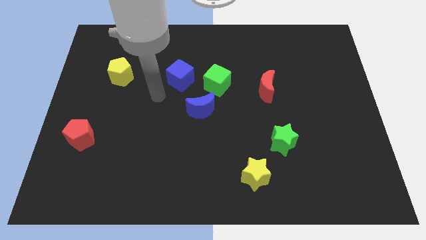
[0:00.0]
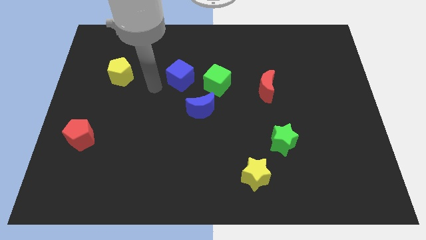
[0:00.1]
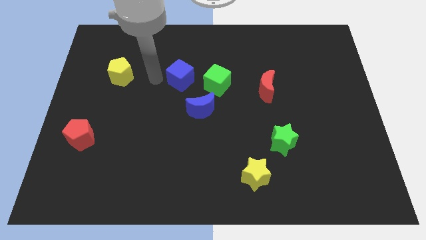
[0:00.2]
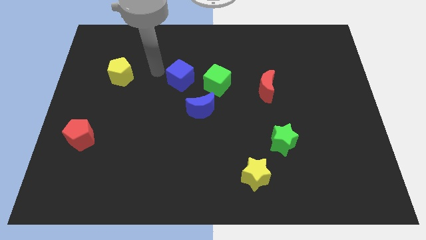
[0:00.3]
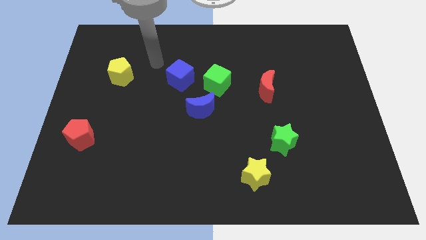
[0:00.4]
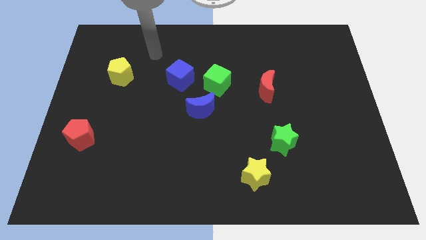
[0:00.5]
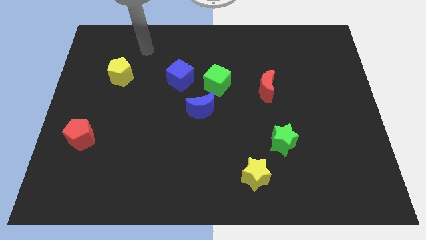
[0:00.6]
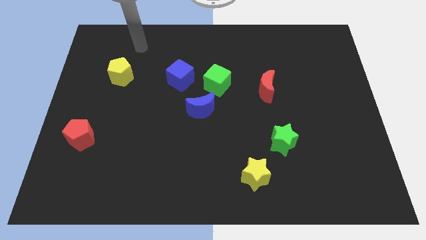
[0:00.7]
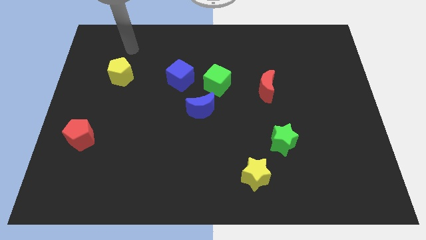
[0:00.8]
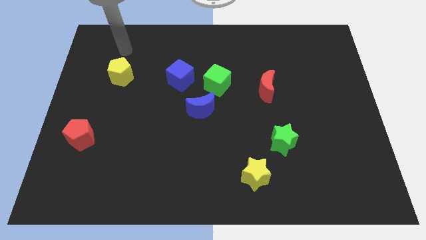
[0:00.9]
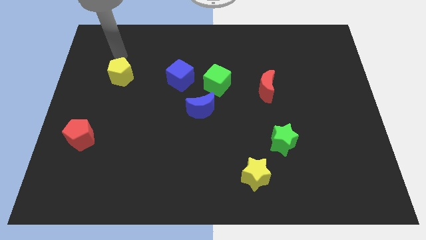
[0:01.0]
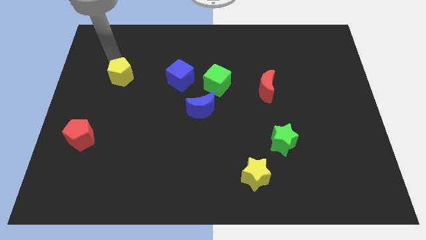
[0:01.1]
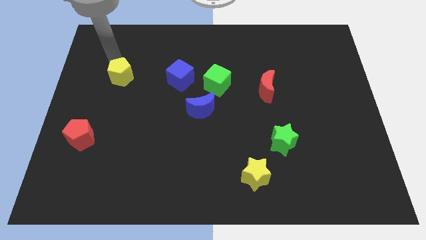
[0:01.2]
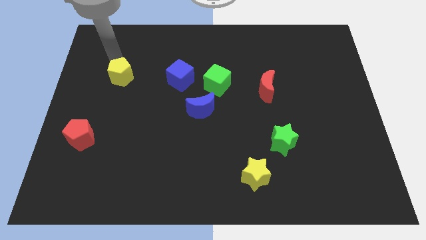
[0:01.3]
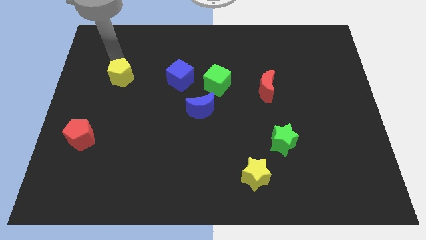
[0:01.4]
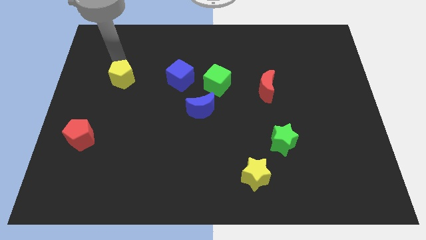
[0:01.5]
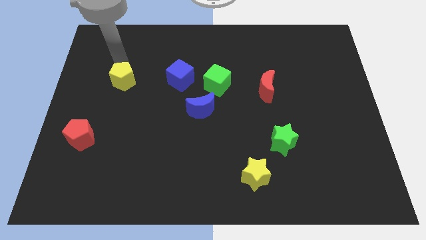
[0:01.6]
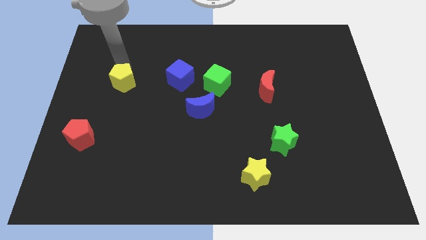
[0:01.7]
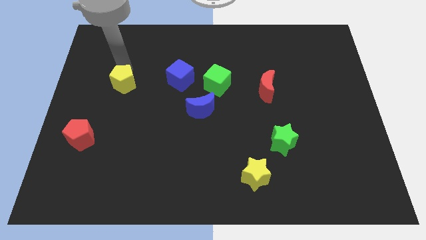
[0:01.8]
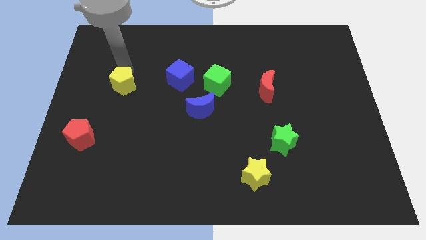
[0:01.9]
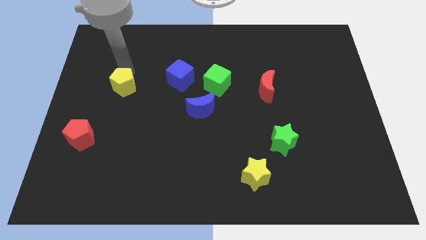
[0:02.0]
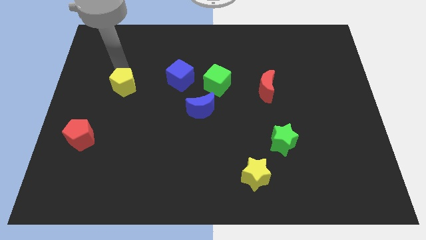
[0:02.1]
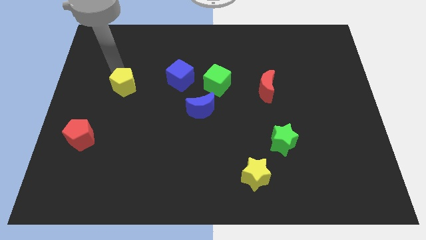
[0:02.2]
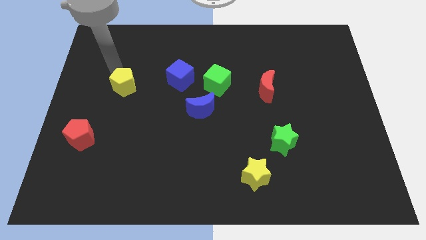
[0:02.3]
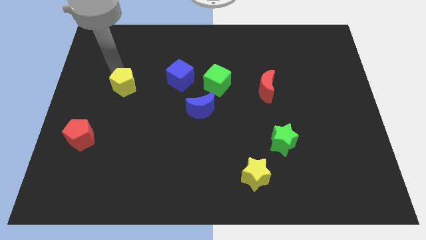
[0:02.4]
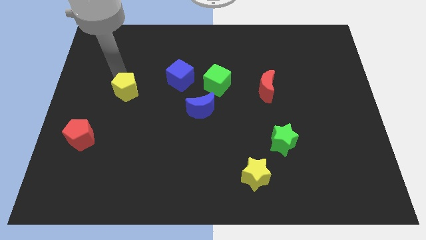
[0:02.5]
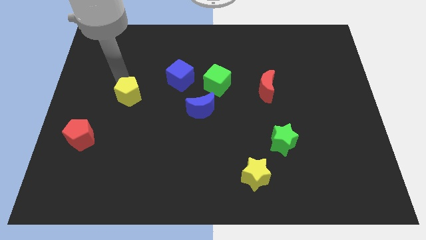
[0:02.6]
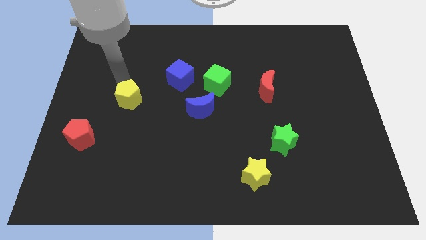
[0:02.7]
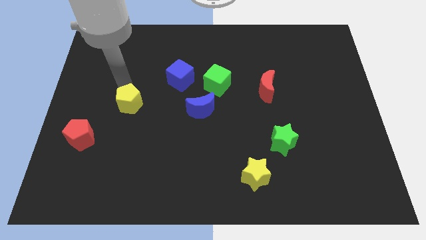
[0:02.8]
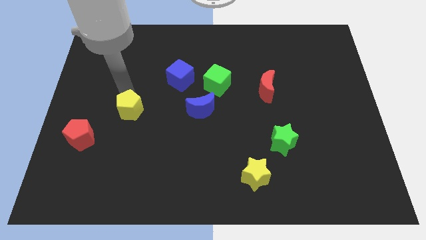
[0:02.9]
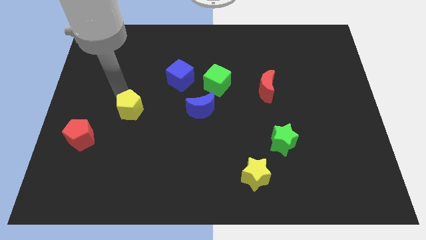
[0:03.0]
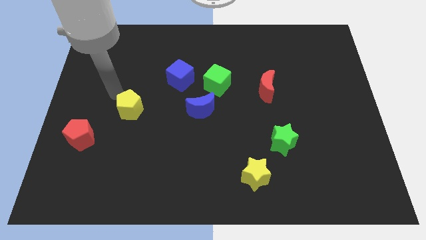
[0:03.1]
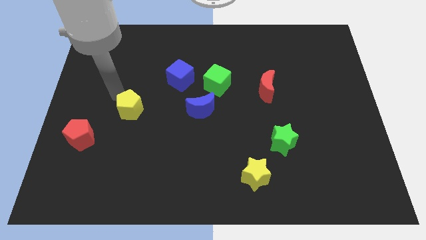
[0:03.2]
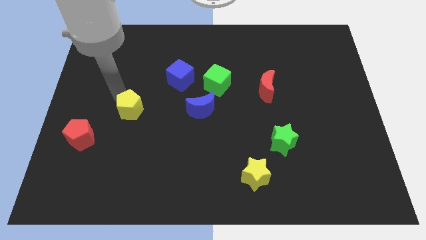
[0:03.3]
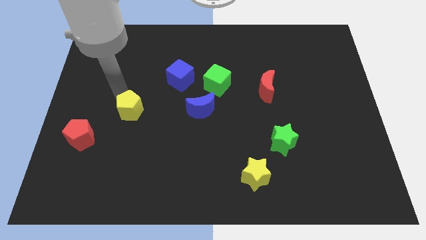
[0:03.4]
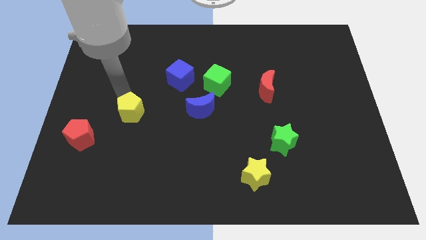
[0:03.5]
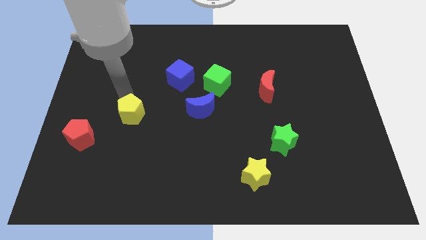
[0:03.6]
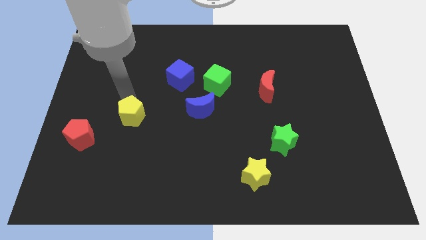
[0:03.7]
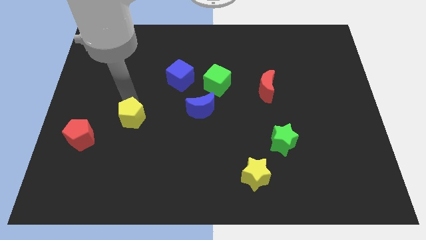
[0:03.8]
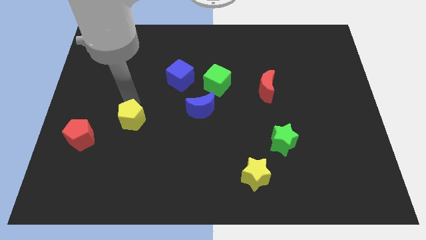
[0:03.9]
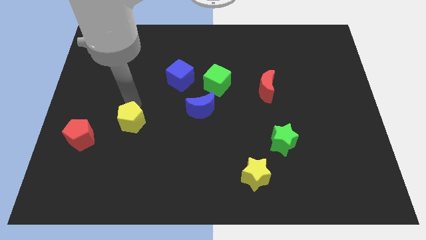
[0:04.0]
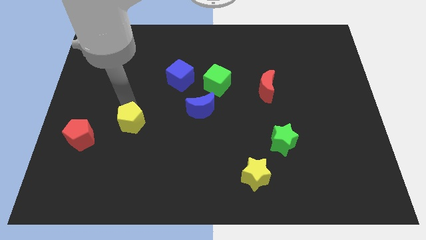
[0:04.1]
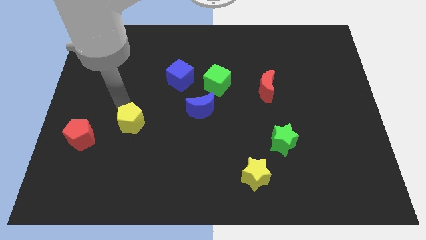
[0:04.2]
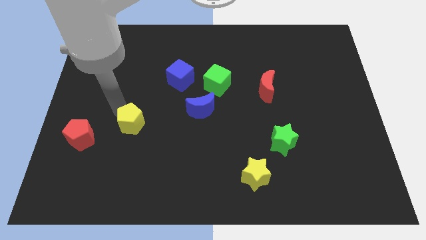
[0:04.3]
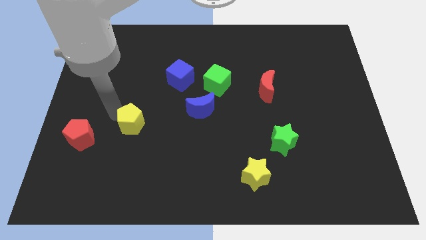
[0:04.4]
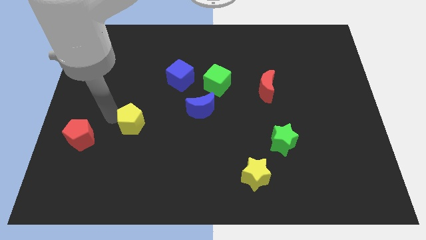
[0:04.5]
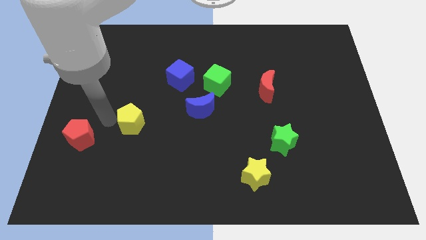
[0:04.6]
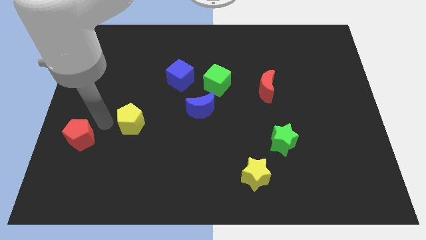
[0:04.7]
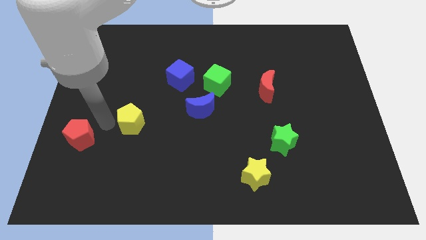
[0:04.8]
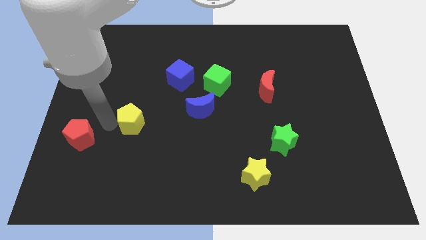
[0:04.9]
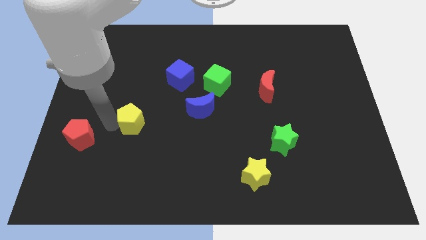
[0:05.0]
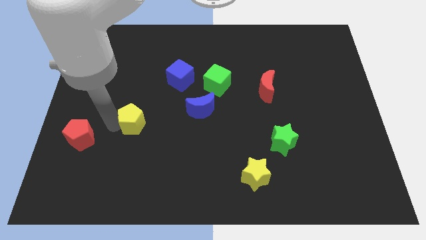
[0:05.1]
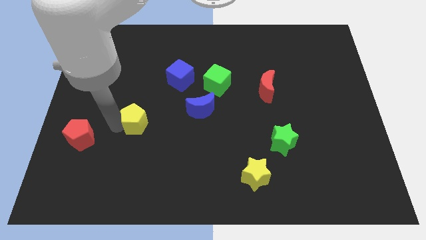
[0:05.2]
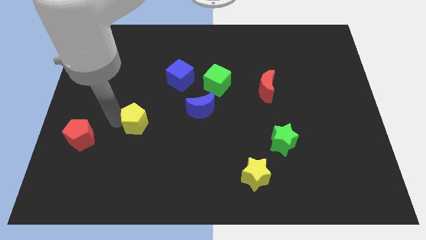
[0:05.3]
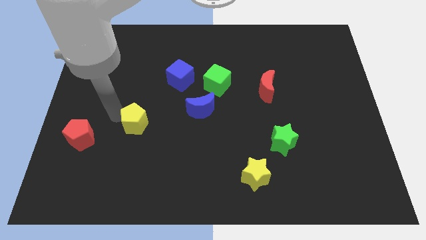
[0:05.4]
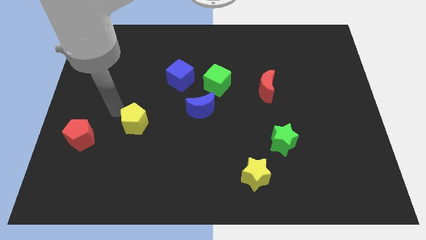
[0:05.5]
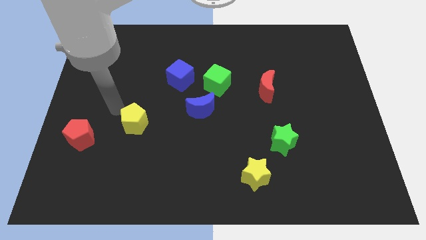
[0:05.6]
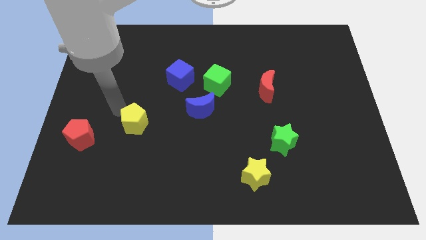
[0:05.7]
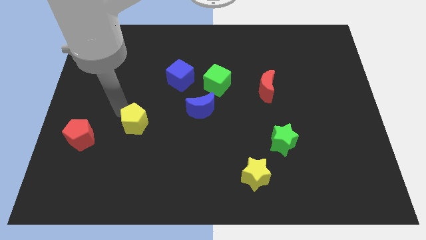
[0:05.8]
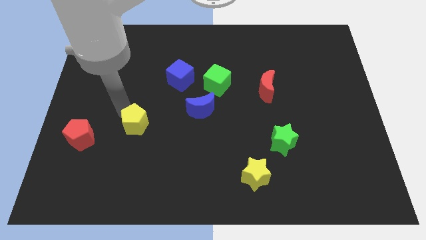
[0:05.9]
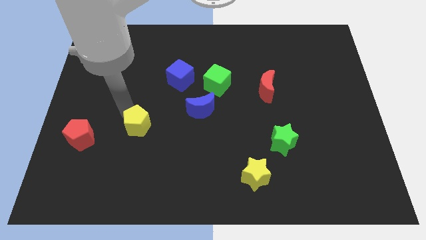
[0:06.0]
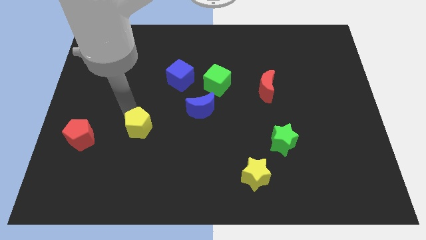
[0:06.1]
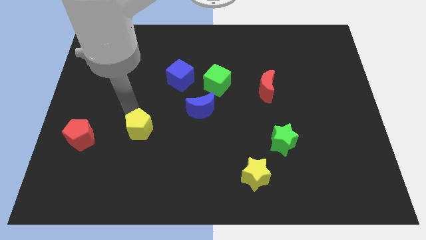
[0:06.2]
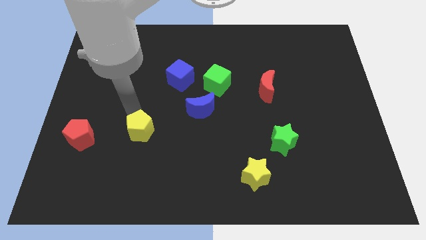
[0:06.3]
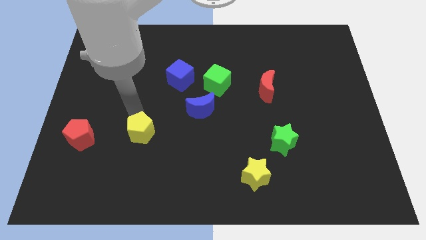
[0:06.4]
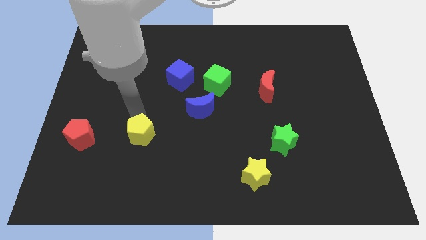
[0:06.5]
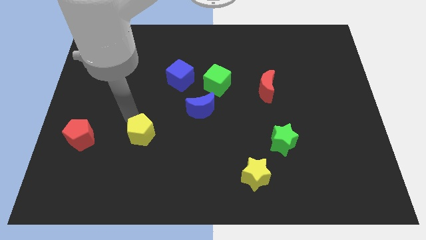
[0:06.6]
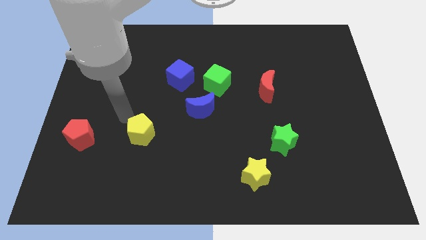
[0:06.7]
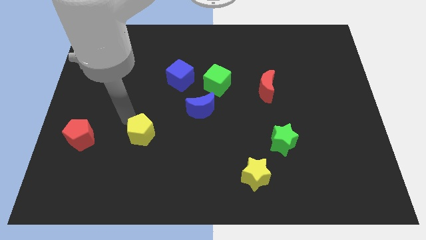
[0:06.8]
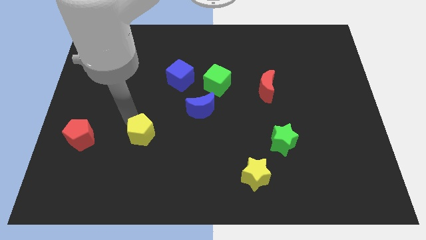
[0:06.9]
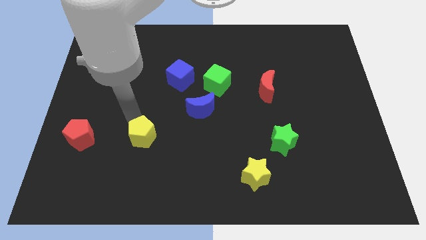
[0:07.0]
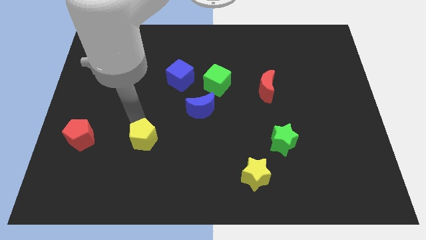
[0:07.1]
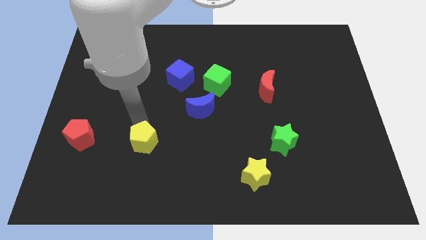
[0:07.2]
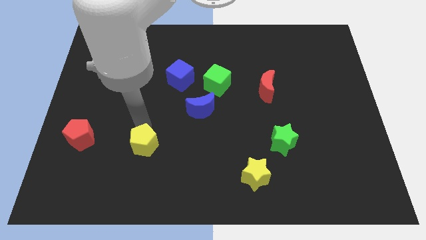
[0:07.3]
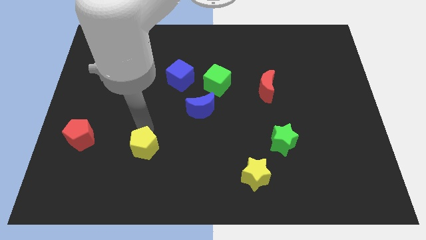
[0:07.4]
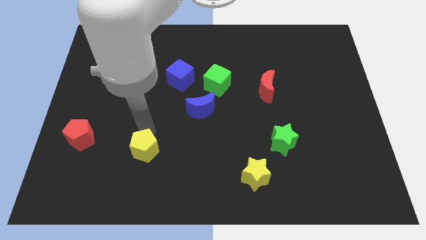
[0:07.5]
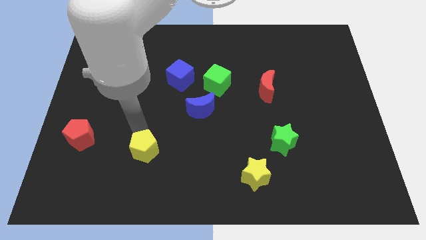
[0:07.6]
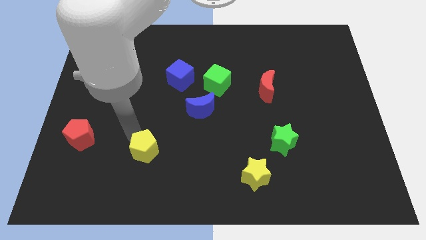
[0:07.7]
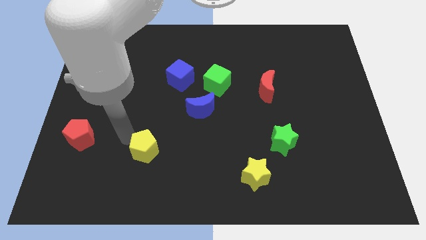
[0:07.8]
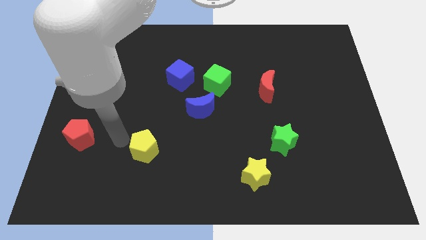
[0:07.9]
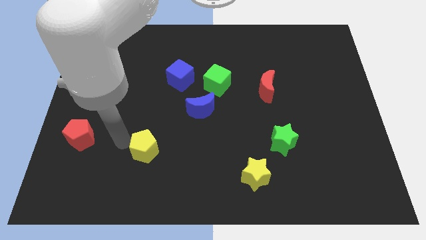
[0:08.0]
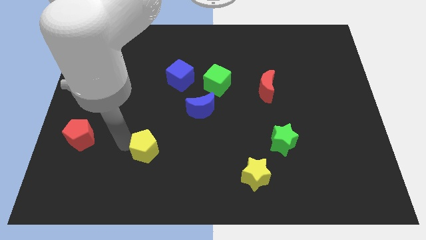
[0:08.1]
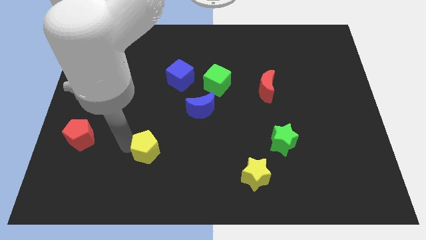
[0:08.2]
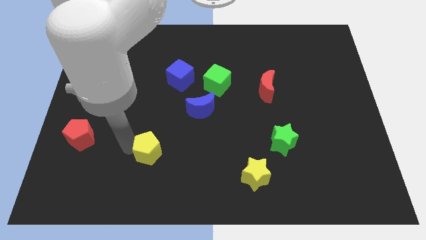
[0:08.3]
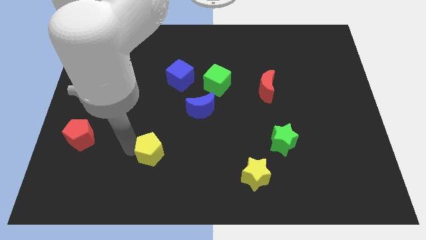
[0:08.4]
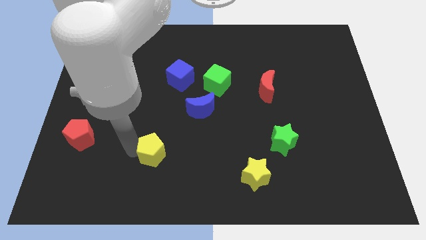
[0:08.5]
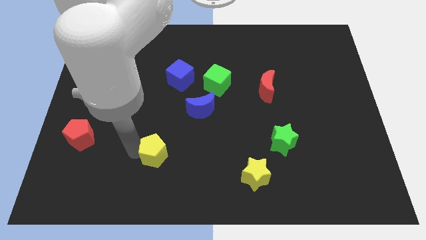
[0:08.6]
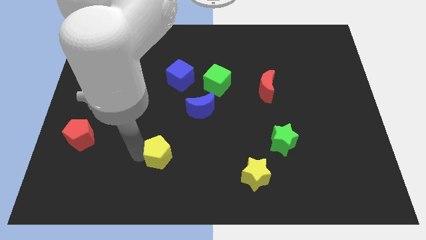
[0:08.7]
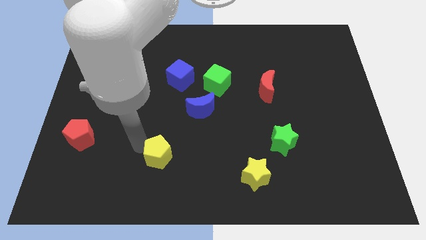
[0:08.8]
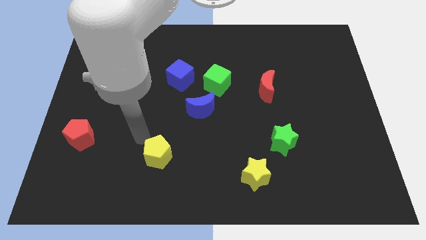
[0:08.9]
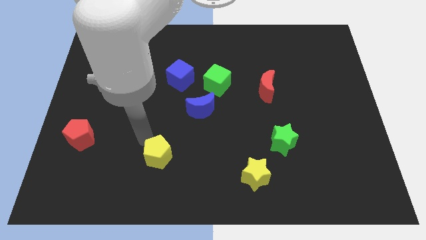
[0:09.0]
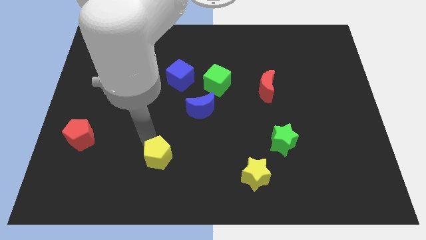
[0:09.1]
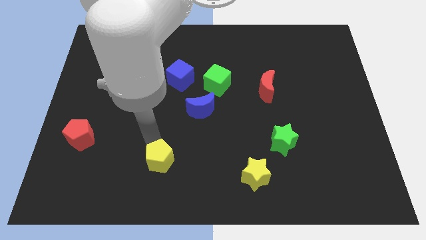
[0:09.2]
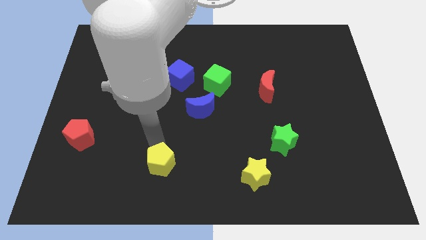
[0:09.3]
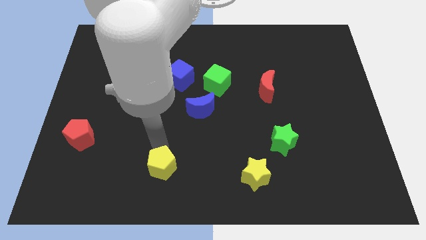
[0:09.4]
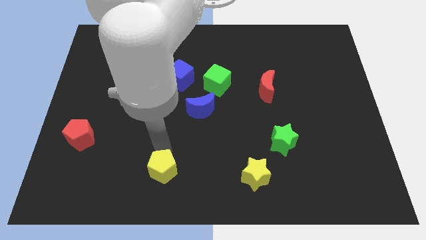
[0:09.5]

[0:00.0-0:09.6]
put the yellow pentagon to the bottom side
